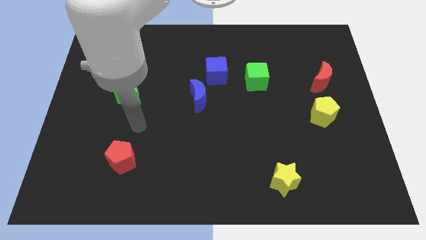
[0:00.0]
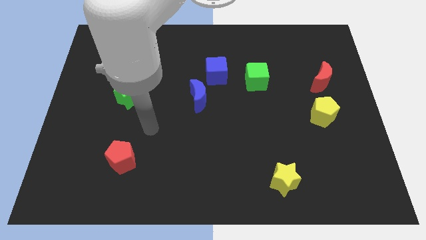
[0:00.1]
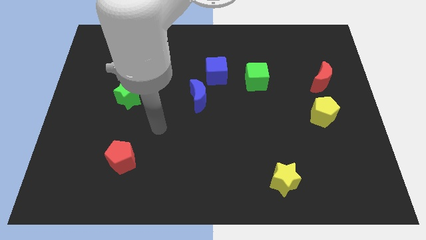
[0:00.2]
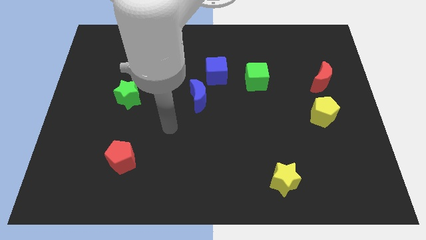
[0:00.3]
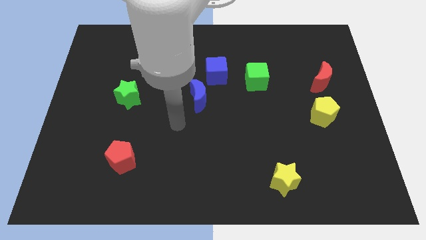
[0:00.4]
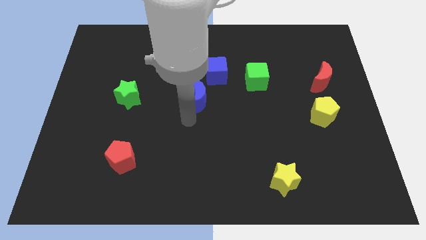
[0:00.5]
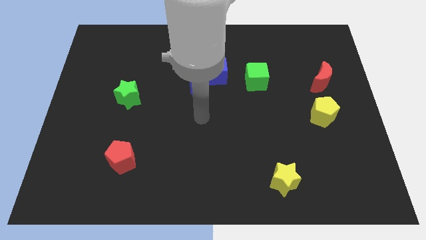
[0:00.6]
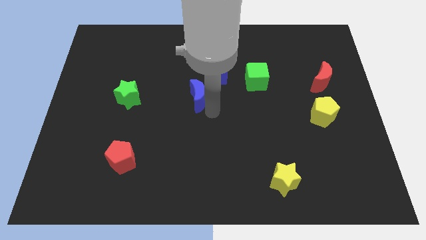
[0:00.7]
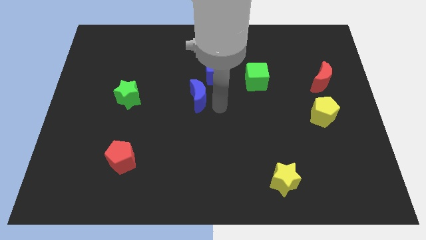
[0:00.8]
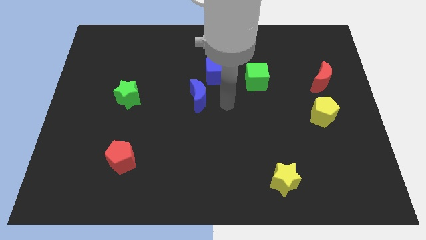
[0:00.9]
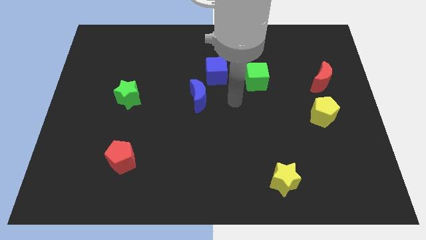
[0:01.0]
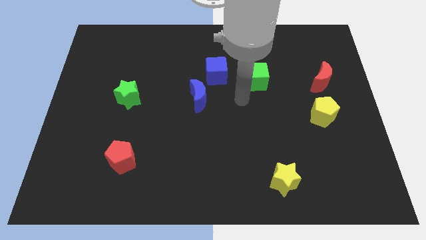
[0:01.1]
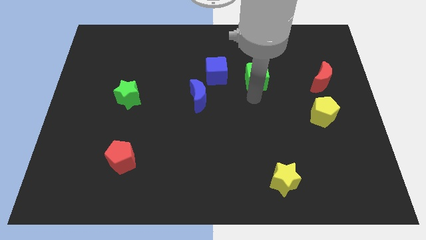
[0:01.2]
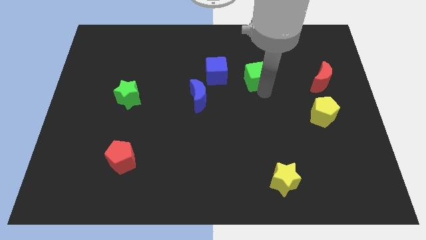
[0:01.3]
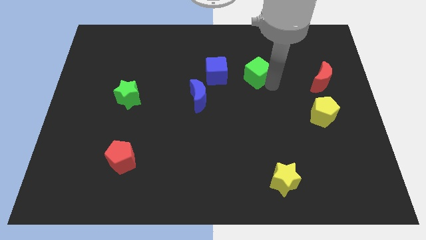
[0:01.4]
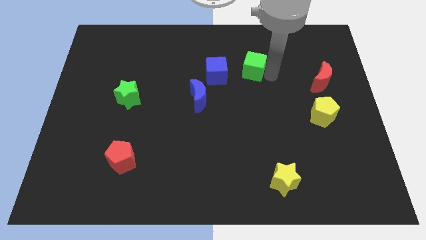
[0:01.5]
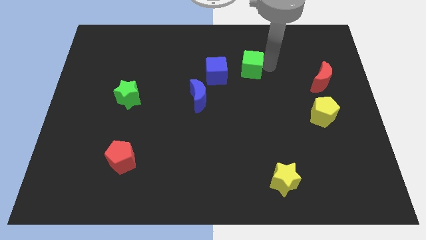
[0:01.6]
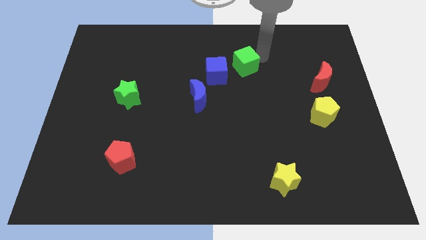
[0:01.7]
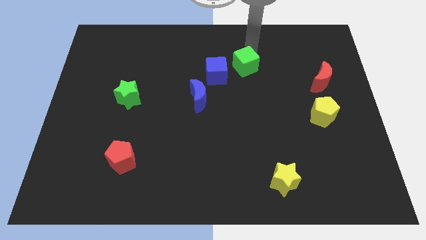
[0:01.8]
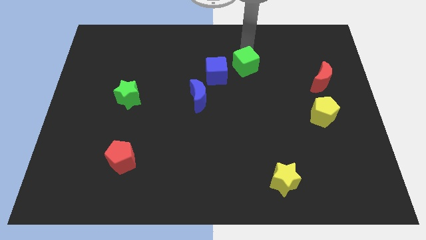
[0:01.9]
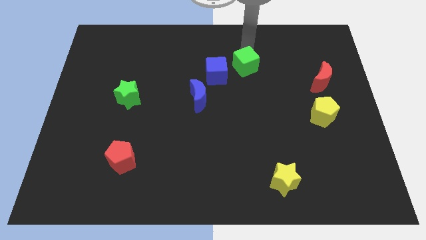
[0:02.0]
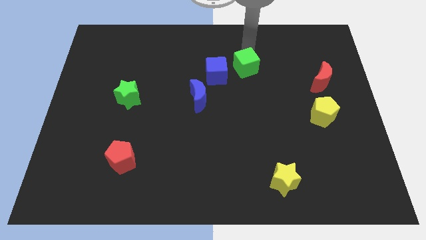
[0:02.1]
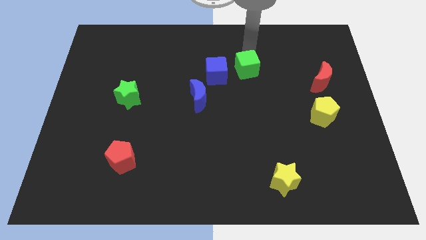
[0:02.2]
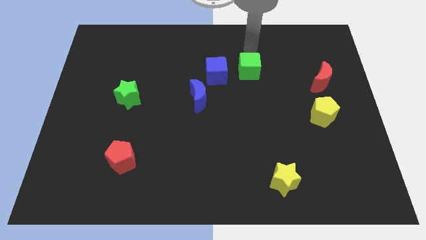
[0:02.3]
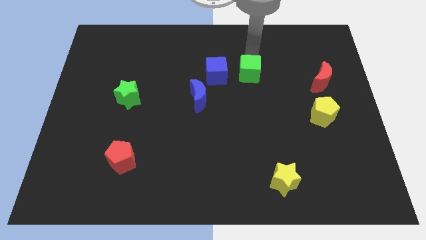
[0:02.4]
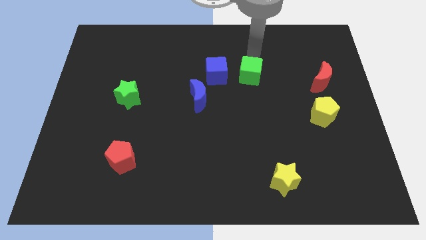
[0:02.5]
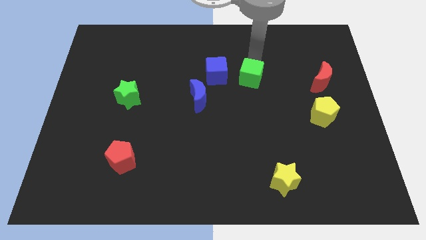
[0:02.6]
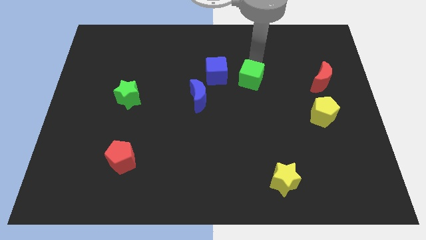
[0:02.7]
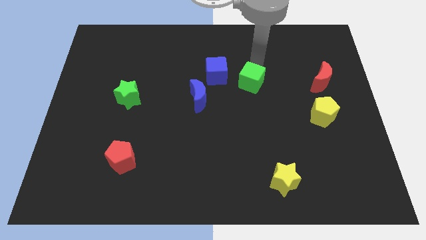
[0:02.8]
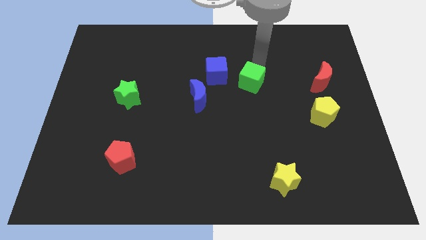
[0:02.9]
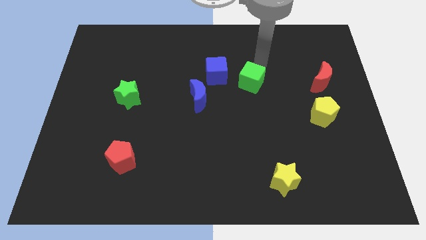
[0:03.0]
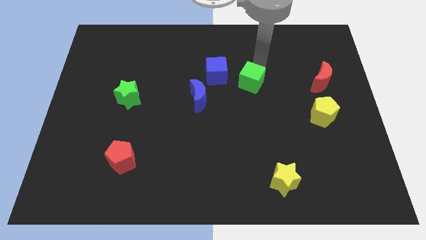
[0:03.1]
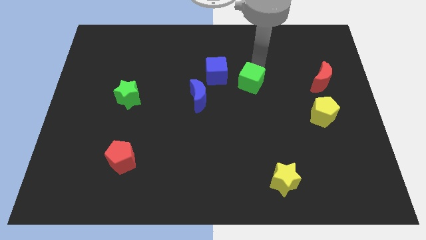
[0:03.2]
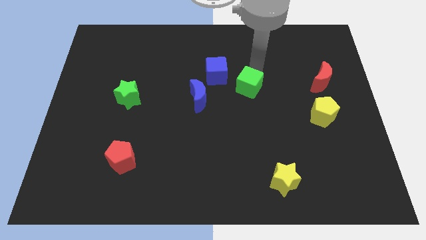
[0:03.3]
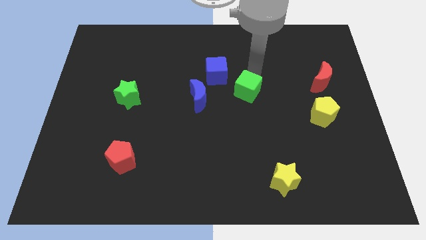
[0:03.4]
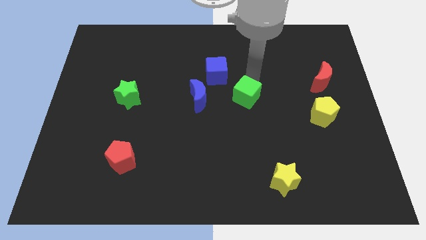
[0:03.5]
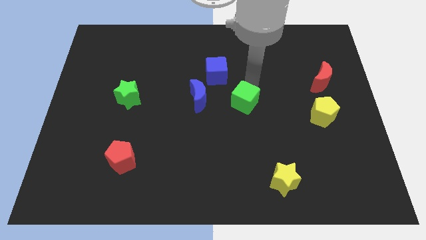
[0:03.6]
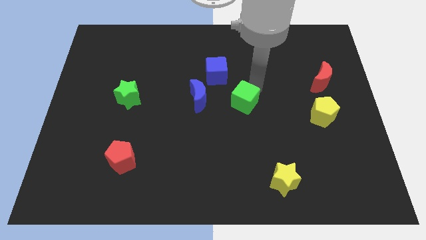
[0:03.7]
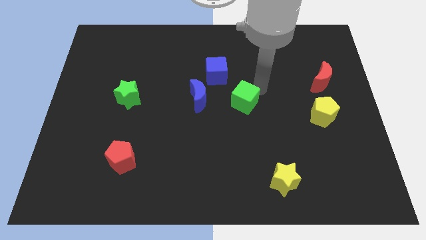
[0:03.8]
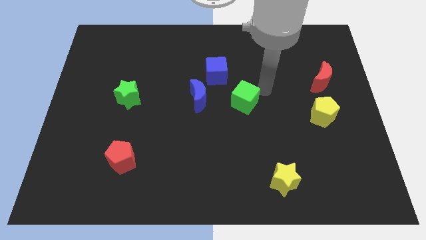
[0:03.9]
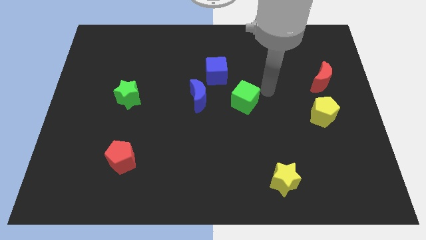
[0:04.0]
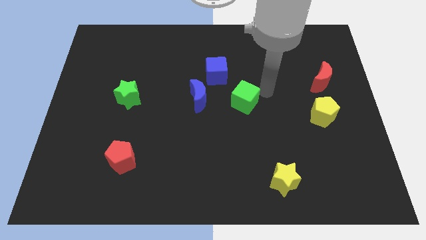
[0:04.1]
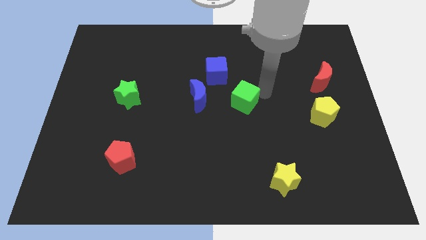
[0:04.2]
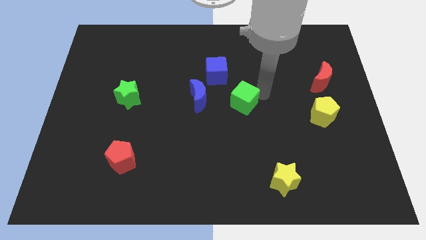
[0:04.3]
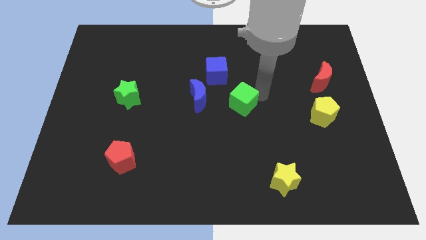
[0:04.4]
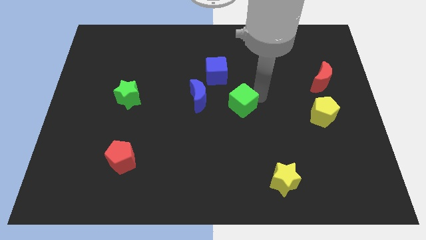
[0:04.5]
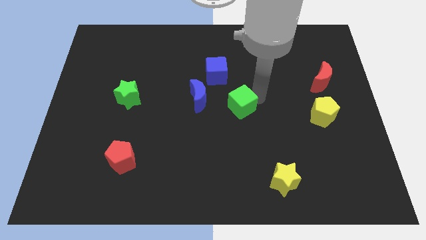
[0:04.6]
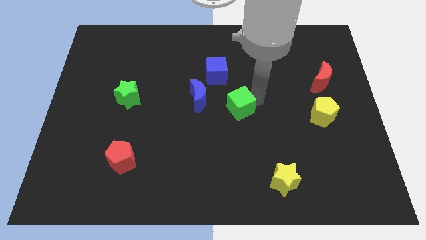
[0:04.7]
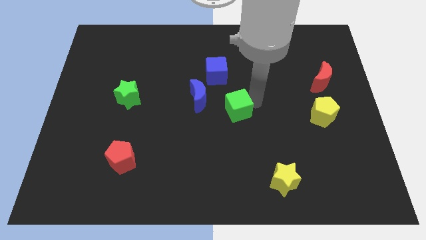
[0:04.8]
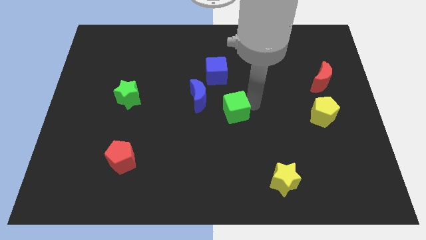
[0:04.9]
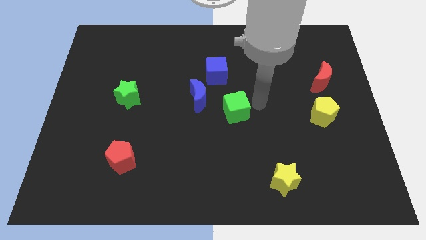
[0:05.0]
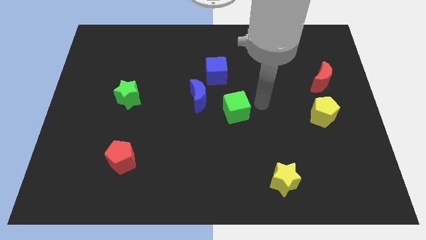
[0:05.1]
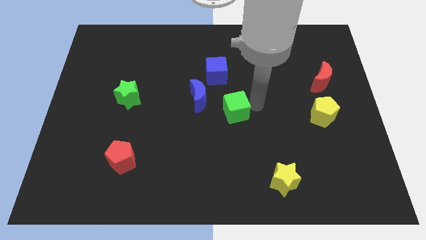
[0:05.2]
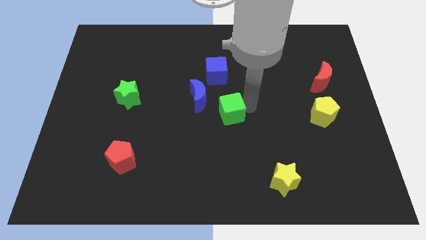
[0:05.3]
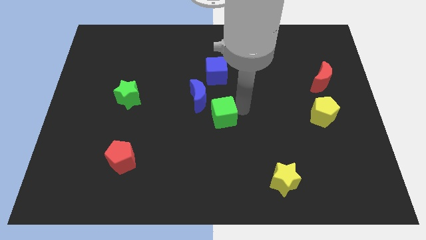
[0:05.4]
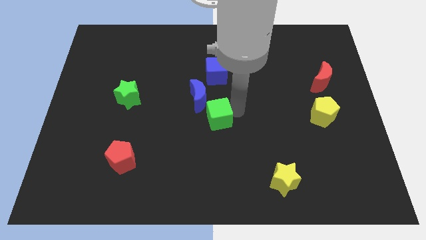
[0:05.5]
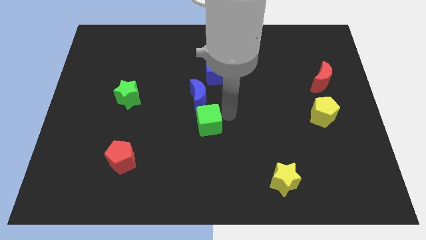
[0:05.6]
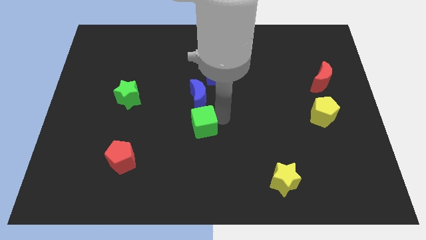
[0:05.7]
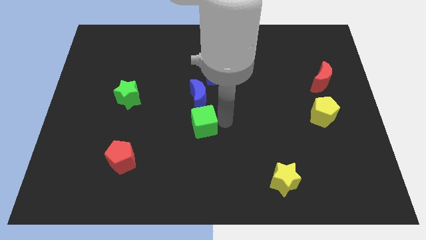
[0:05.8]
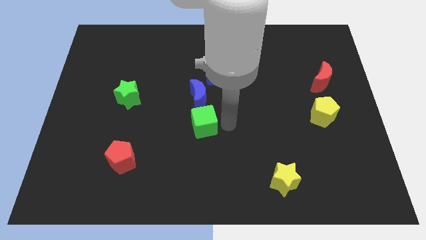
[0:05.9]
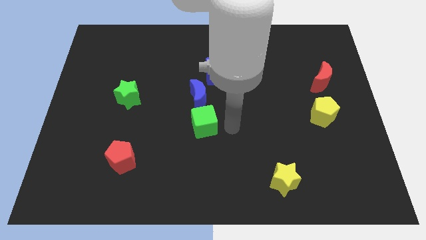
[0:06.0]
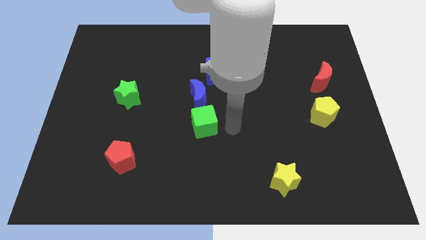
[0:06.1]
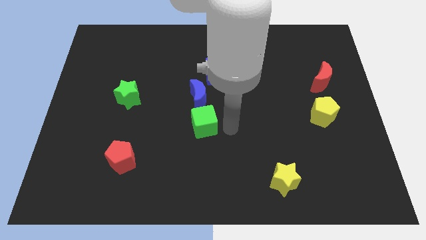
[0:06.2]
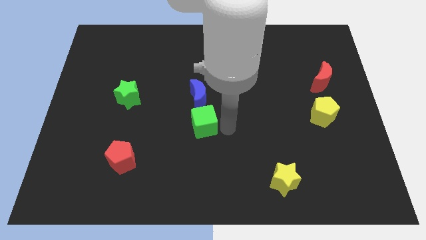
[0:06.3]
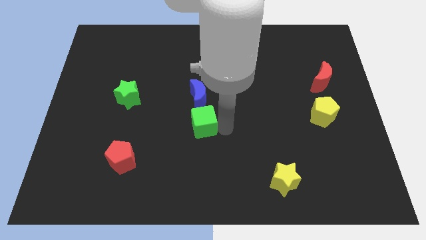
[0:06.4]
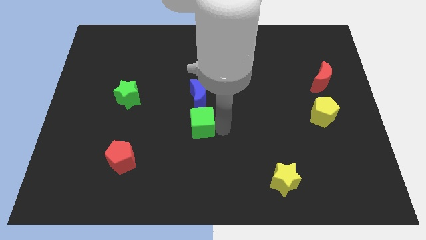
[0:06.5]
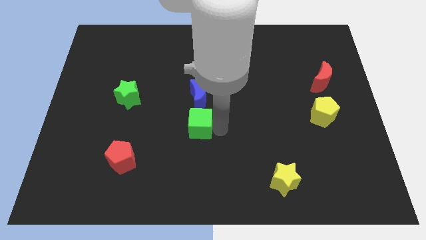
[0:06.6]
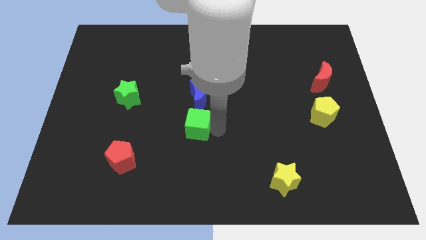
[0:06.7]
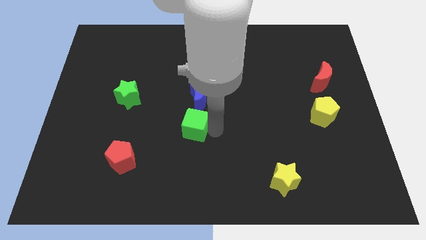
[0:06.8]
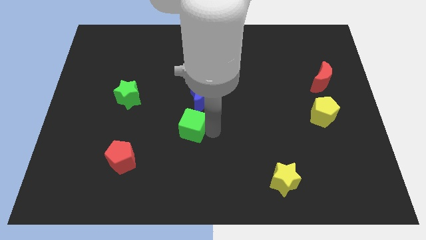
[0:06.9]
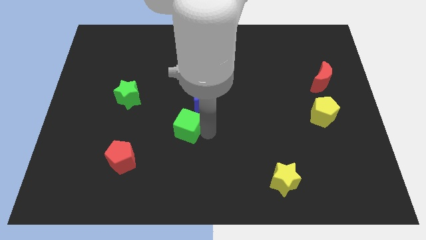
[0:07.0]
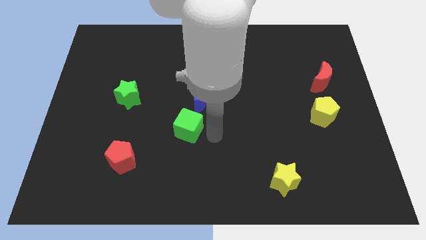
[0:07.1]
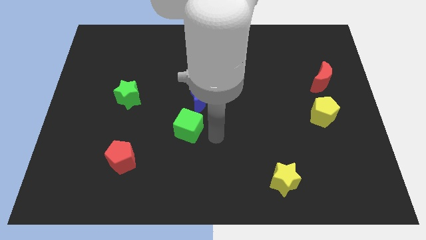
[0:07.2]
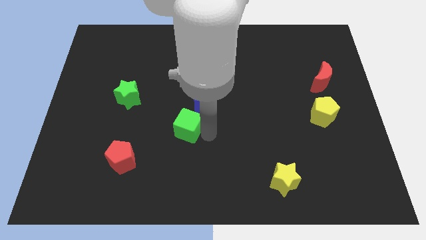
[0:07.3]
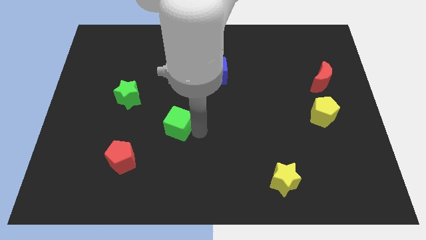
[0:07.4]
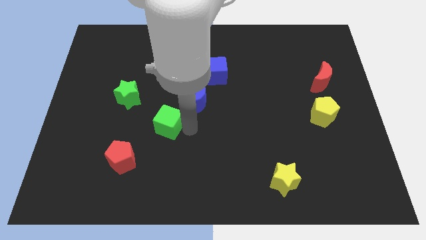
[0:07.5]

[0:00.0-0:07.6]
move the green cube to the bottom right side of the green star
